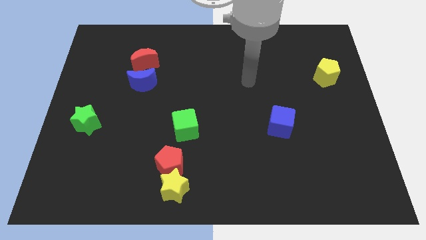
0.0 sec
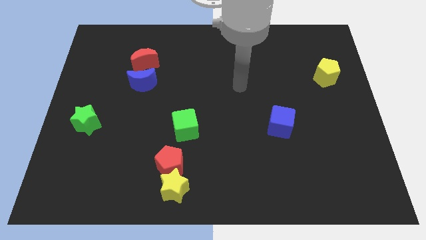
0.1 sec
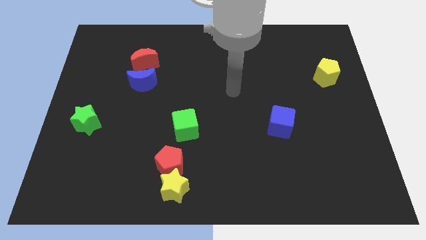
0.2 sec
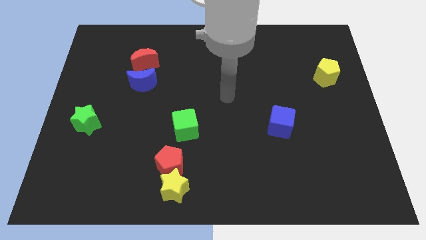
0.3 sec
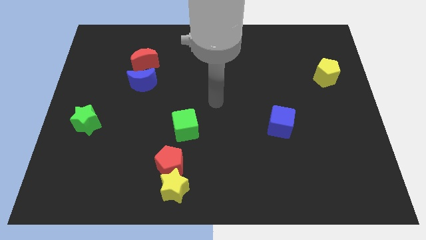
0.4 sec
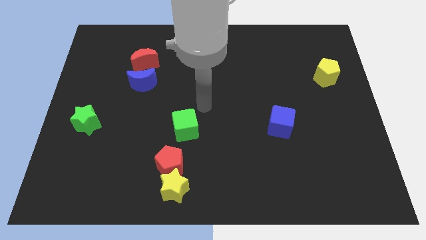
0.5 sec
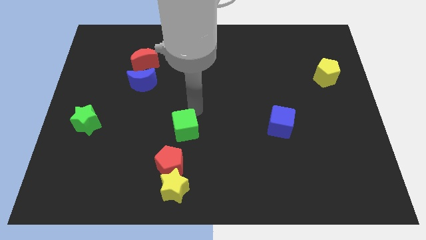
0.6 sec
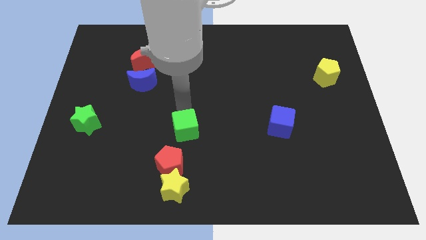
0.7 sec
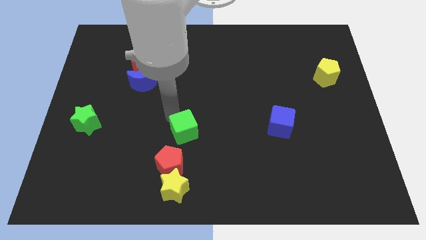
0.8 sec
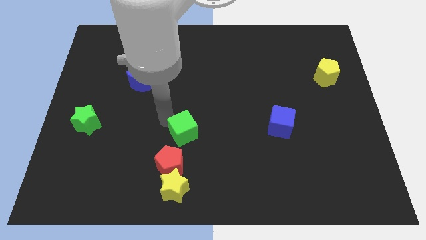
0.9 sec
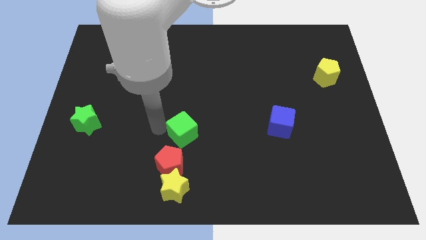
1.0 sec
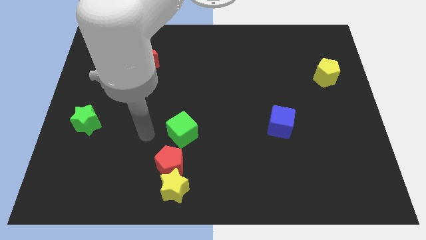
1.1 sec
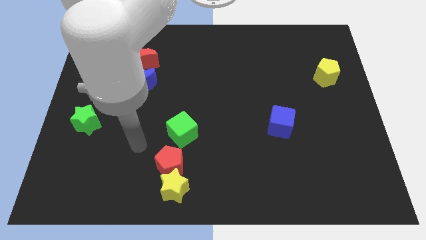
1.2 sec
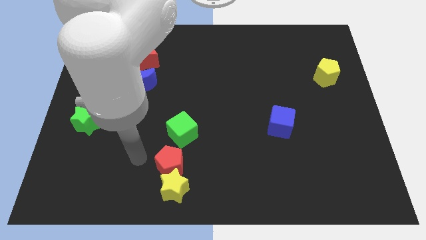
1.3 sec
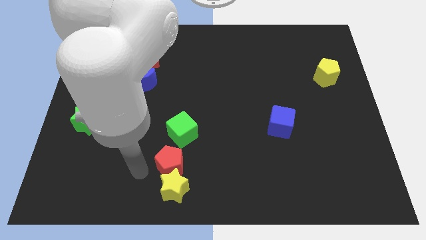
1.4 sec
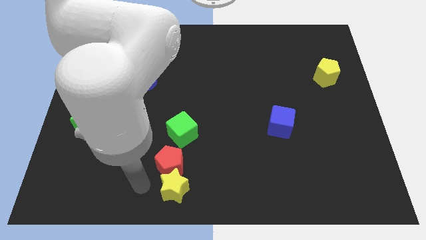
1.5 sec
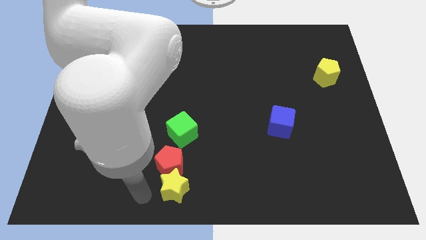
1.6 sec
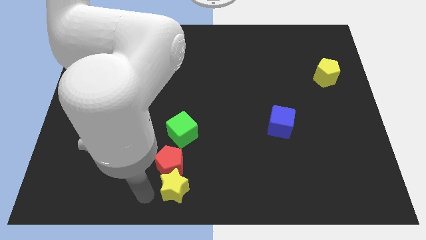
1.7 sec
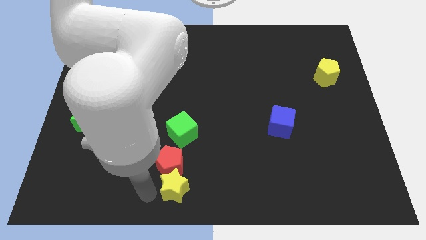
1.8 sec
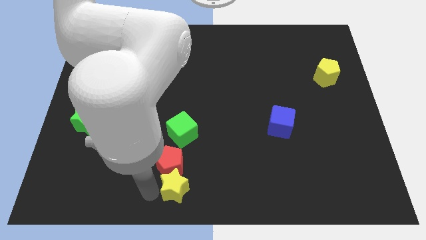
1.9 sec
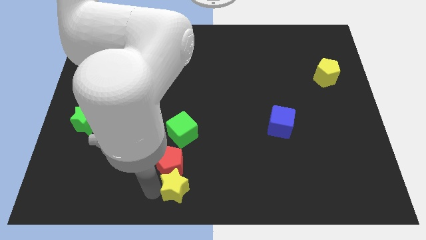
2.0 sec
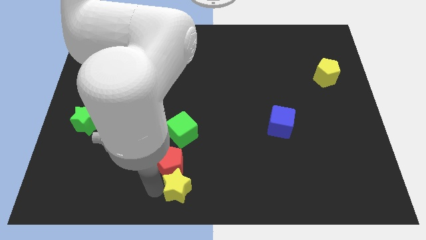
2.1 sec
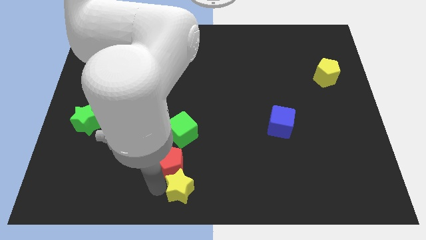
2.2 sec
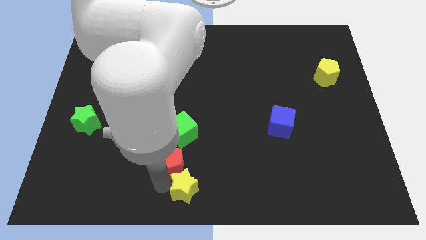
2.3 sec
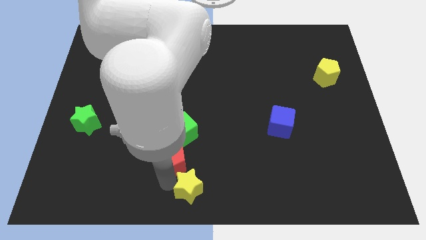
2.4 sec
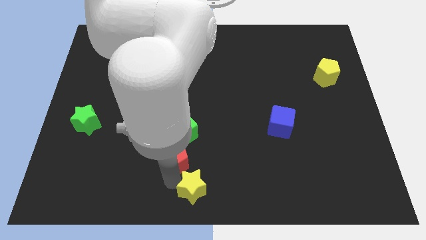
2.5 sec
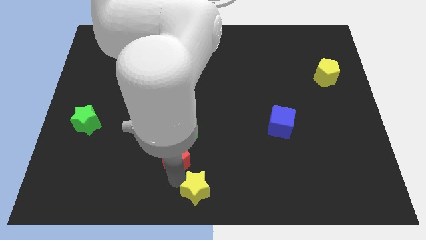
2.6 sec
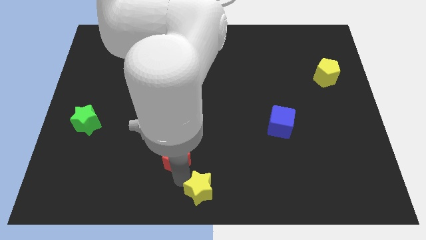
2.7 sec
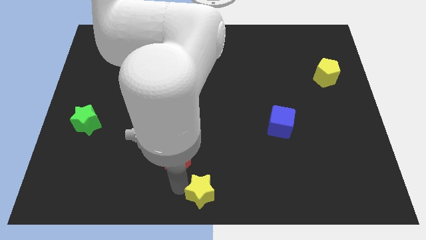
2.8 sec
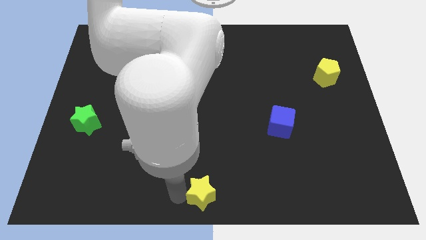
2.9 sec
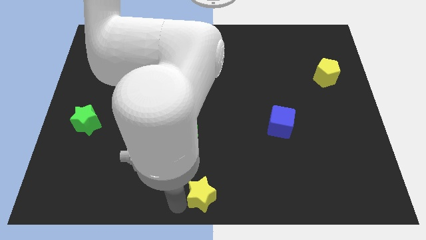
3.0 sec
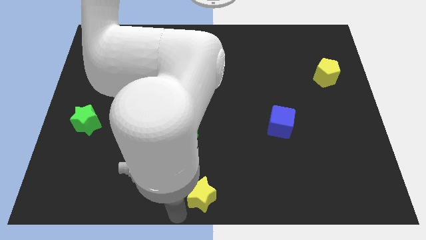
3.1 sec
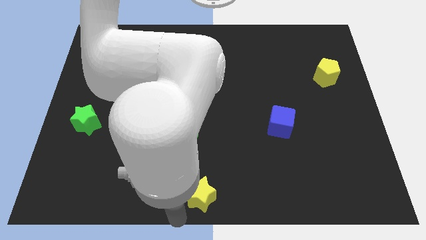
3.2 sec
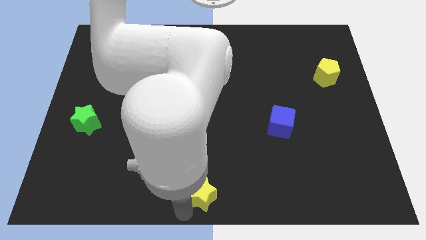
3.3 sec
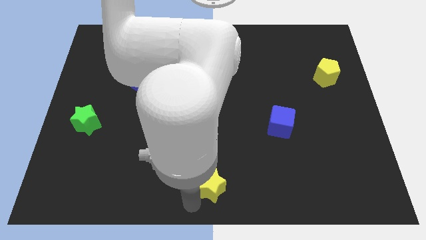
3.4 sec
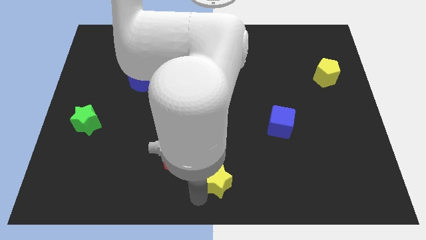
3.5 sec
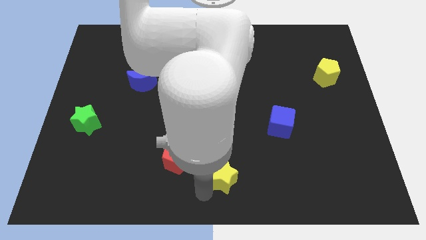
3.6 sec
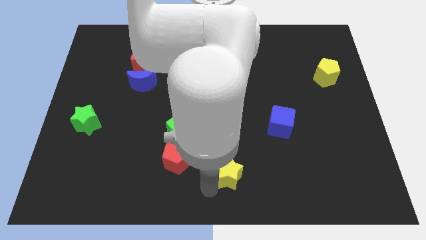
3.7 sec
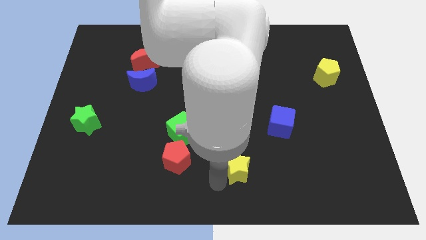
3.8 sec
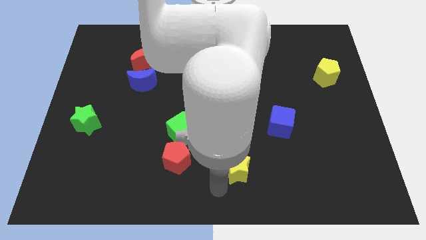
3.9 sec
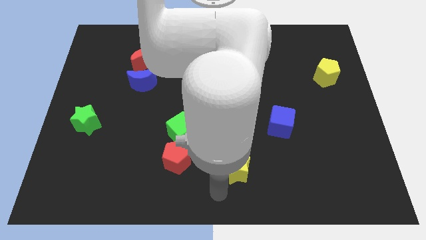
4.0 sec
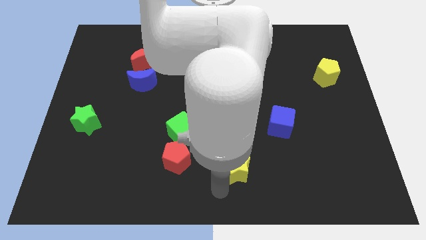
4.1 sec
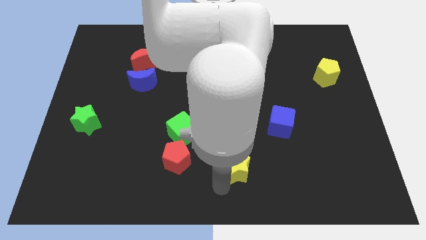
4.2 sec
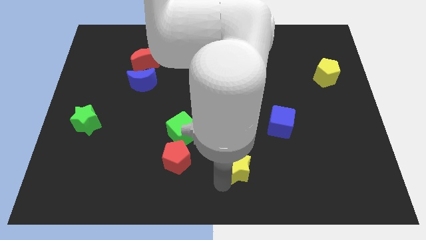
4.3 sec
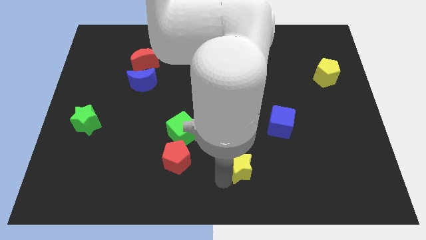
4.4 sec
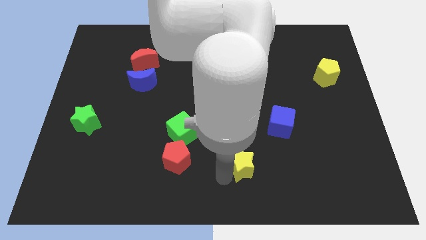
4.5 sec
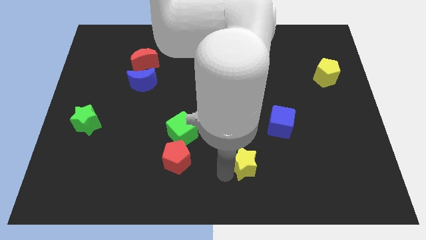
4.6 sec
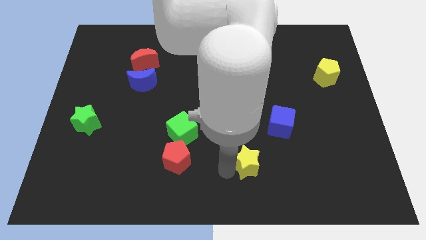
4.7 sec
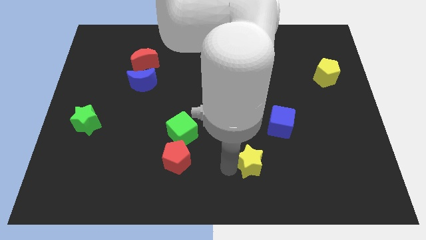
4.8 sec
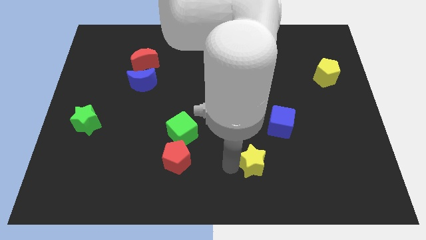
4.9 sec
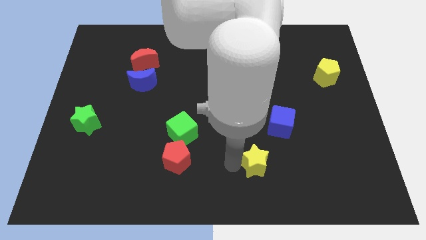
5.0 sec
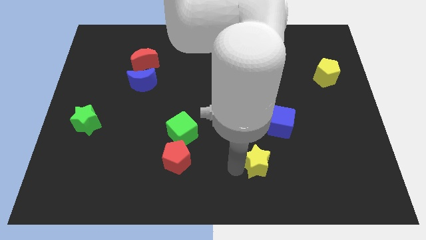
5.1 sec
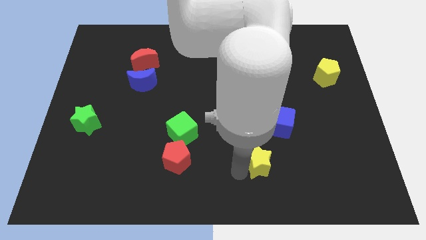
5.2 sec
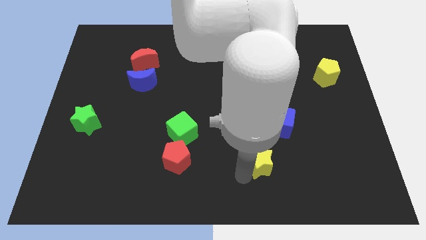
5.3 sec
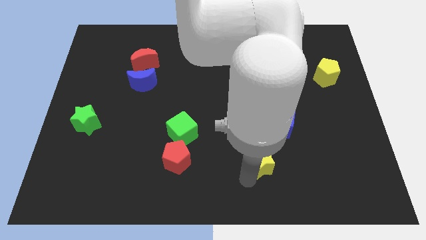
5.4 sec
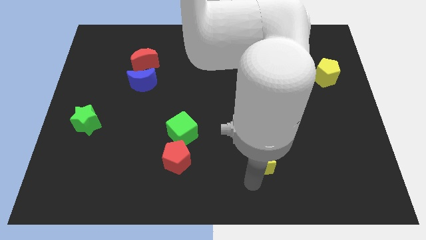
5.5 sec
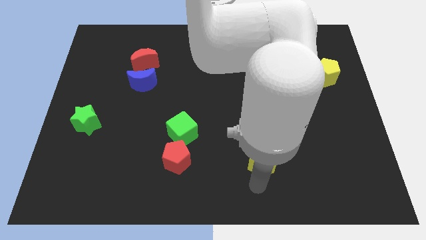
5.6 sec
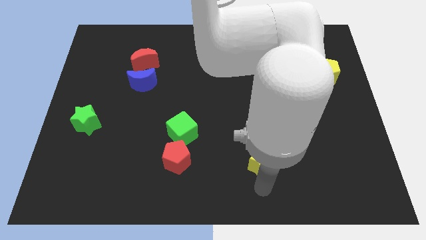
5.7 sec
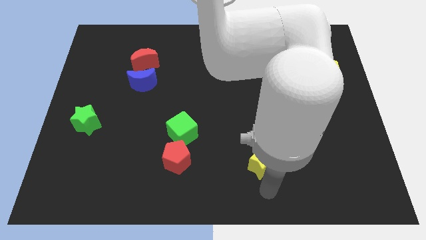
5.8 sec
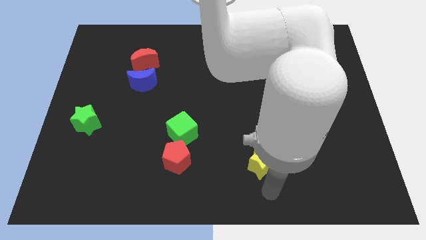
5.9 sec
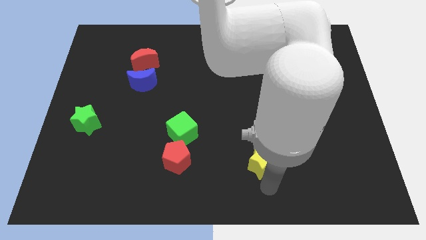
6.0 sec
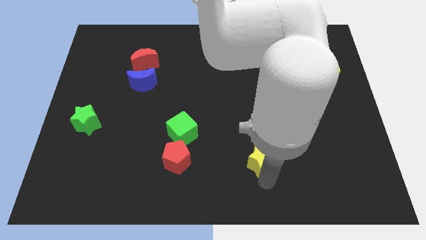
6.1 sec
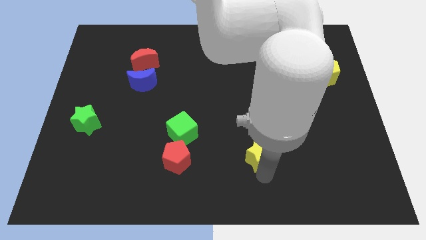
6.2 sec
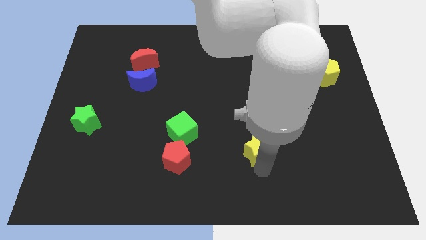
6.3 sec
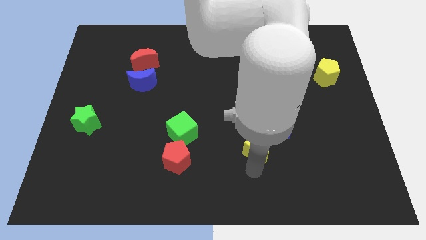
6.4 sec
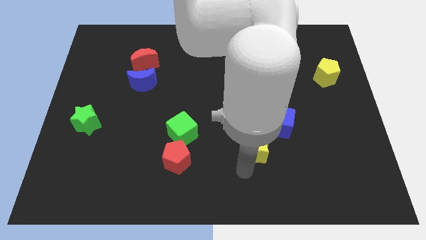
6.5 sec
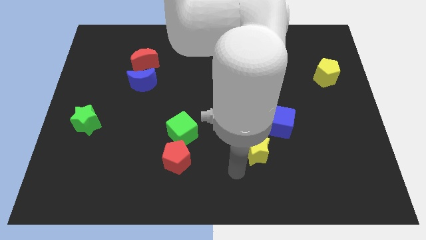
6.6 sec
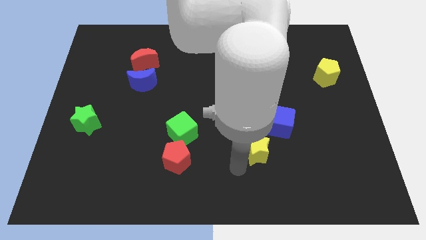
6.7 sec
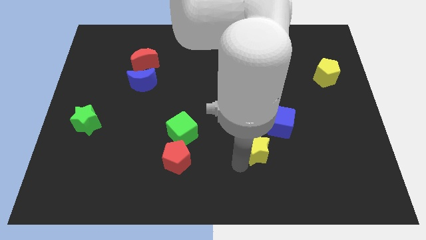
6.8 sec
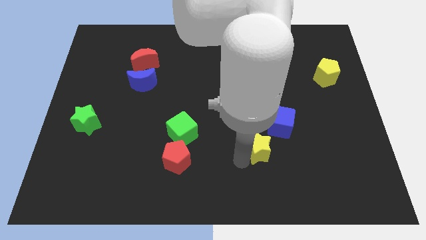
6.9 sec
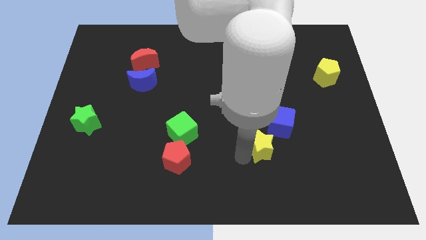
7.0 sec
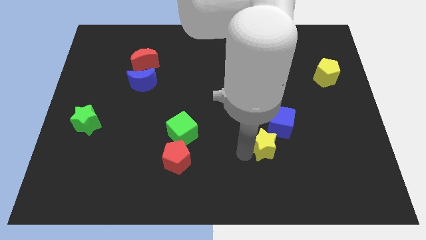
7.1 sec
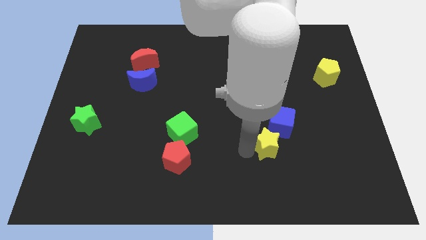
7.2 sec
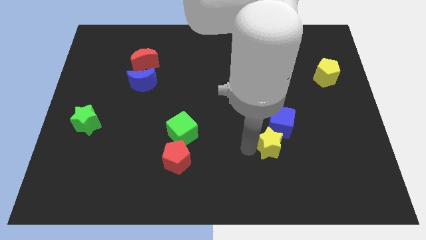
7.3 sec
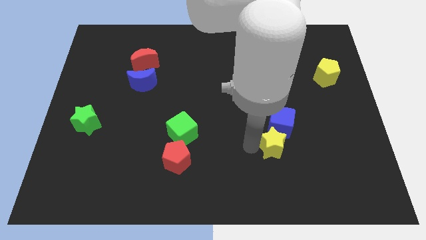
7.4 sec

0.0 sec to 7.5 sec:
put the yellow star towards the blue cube
